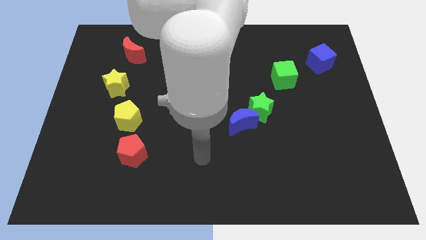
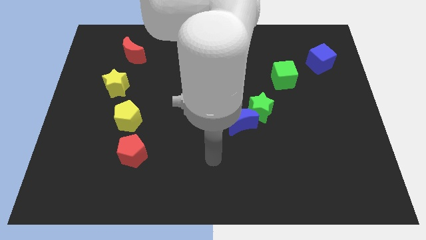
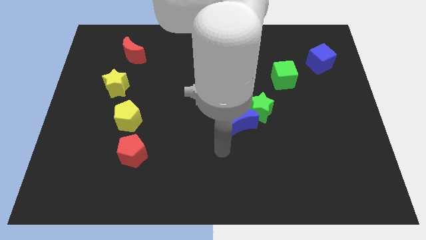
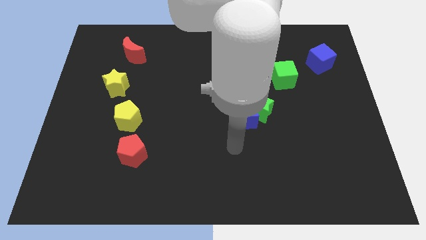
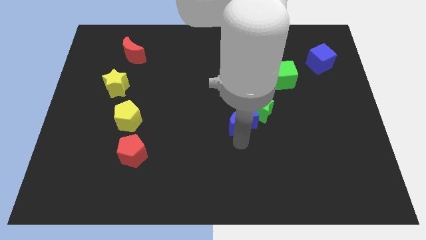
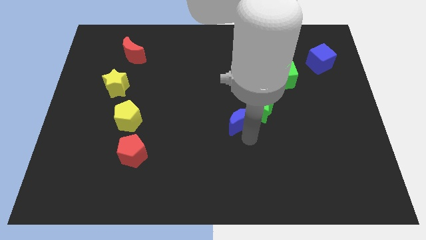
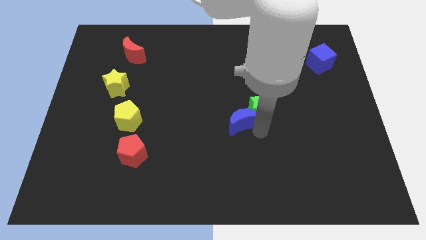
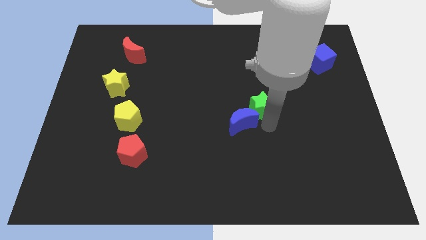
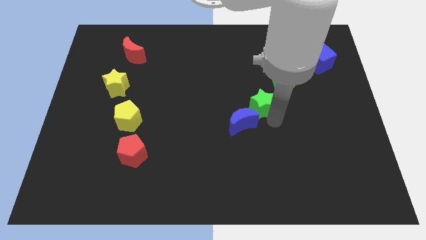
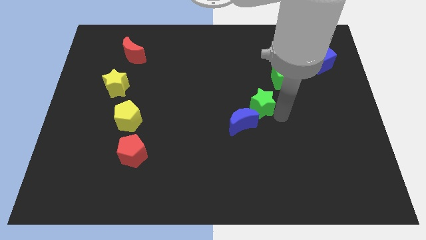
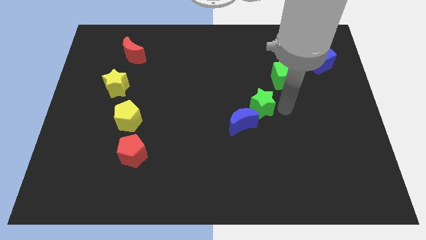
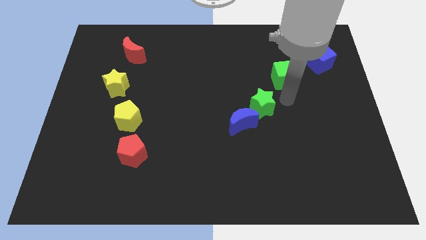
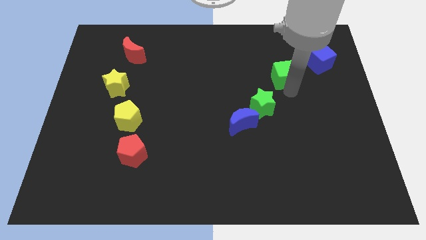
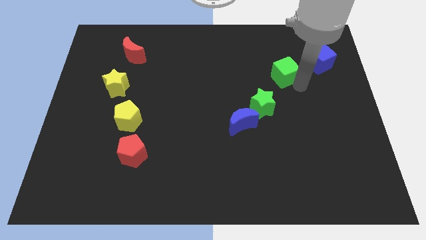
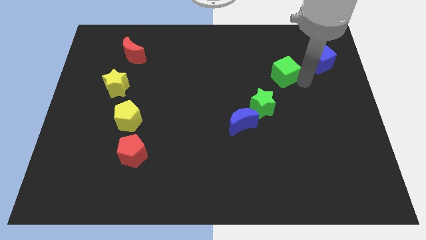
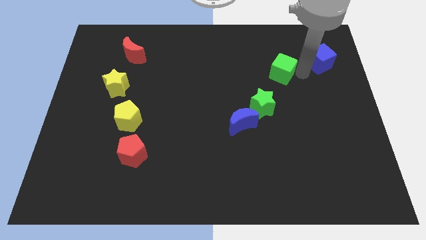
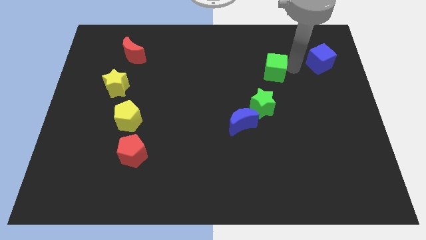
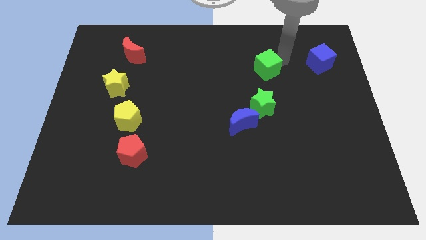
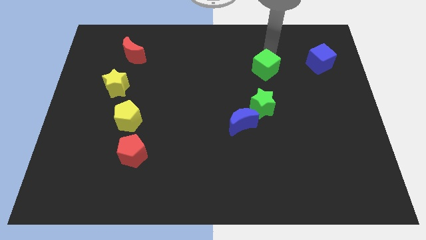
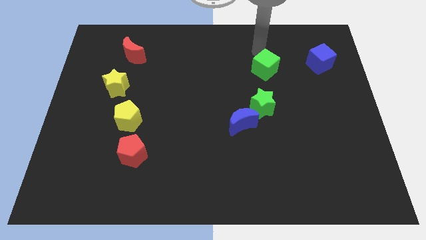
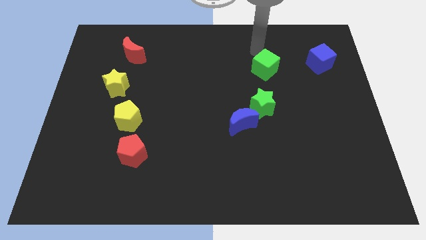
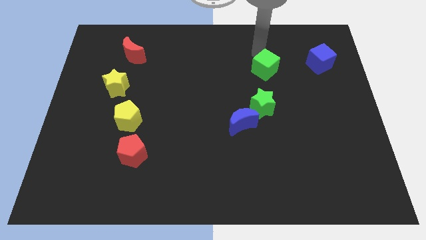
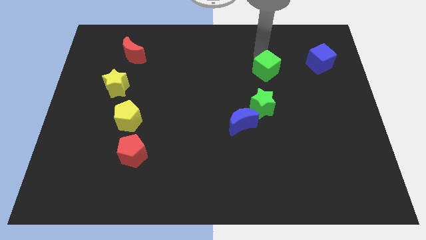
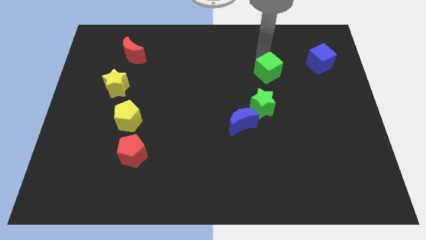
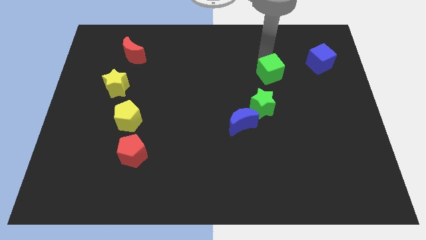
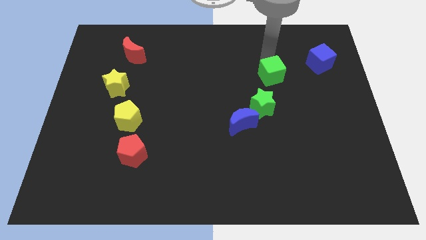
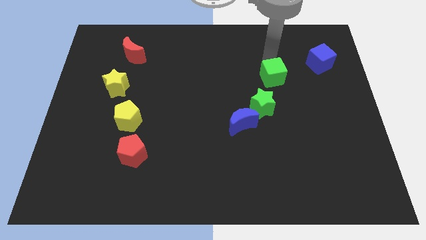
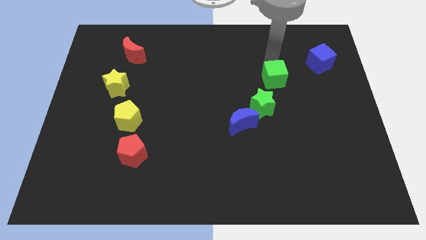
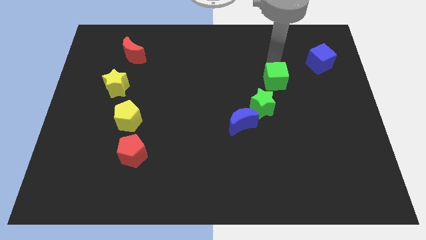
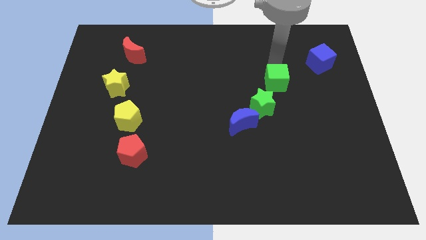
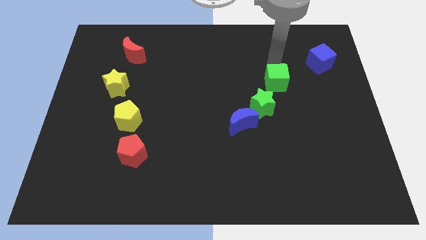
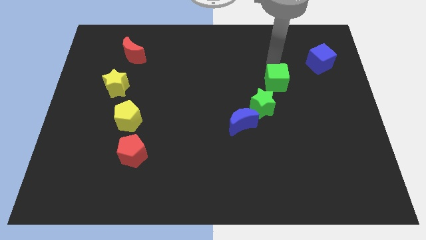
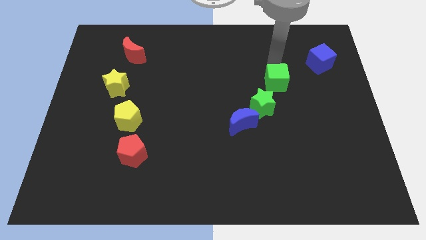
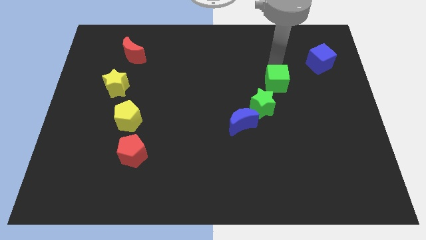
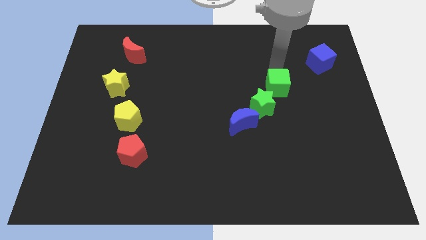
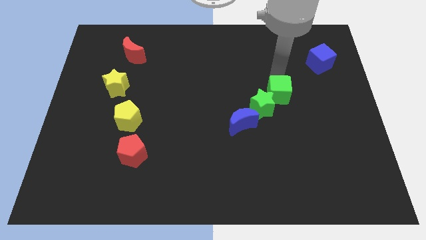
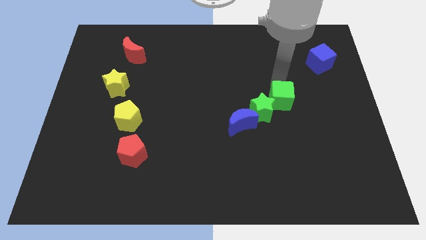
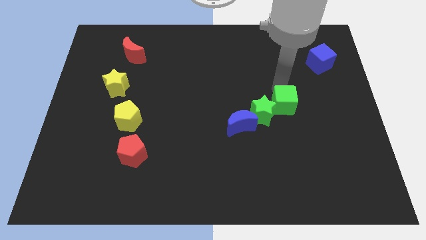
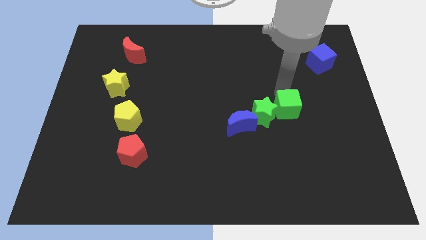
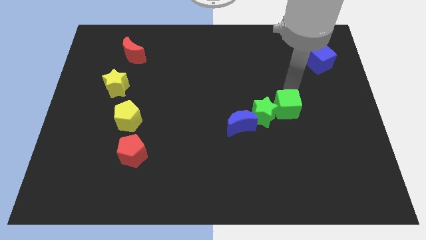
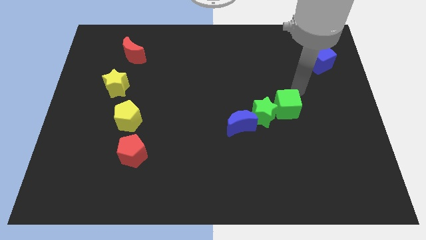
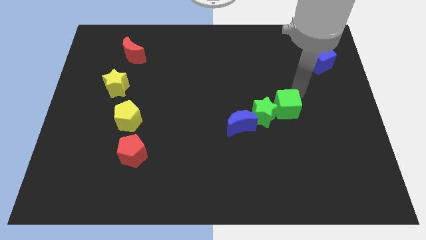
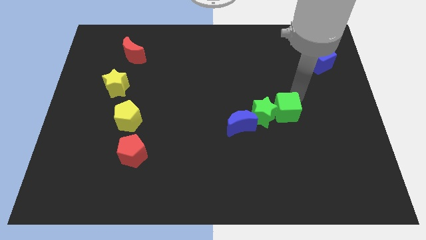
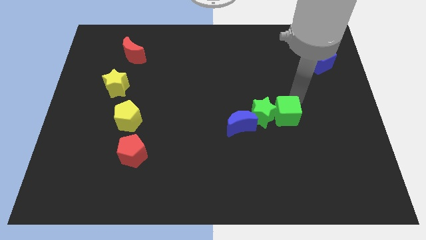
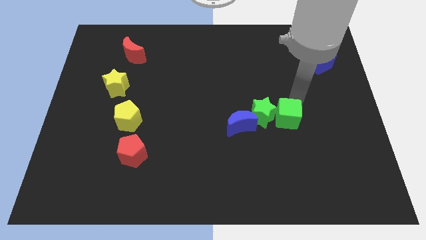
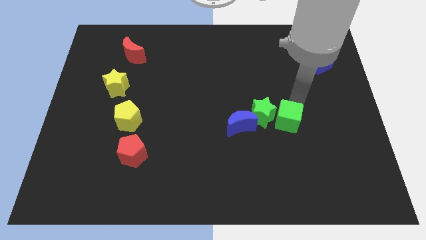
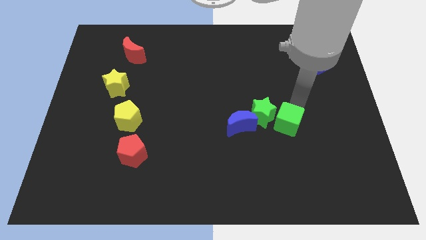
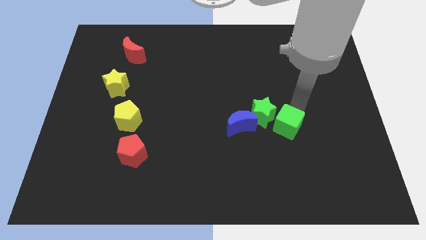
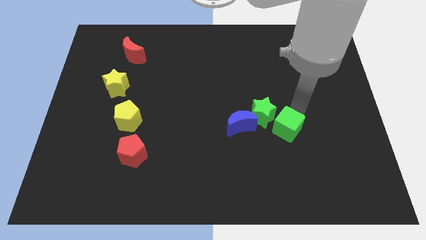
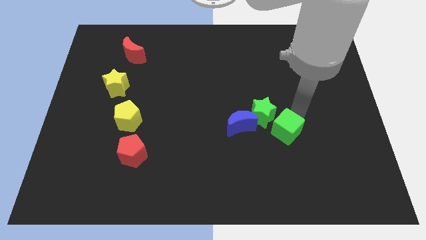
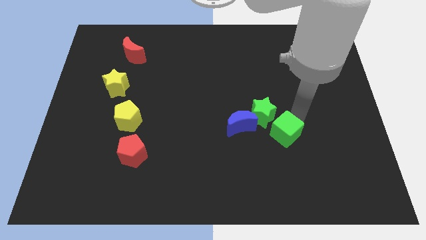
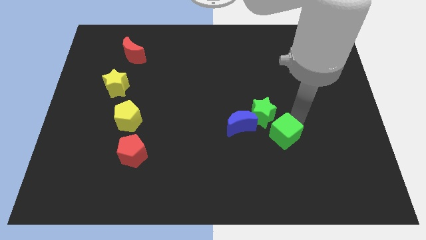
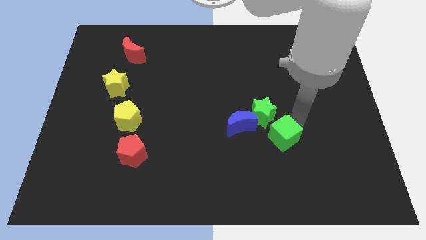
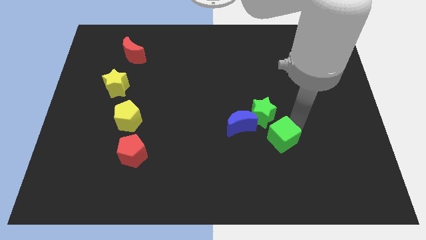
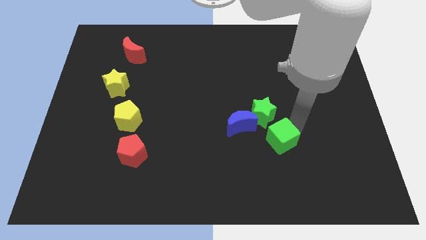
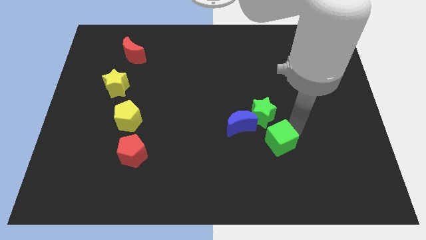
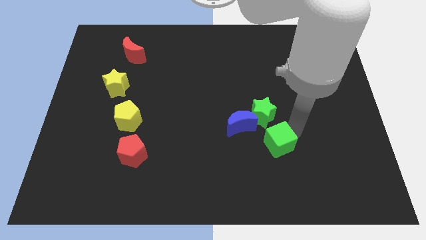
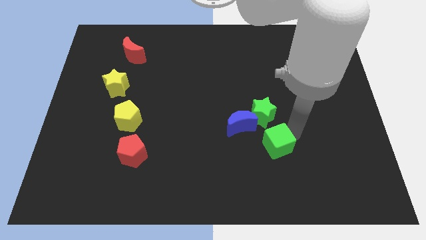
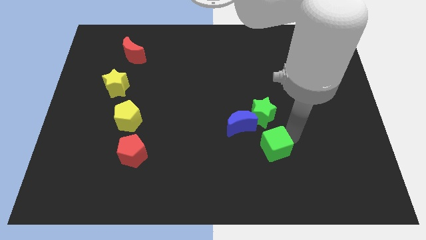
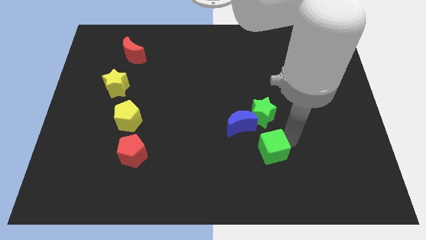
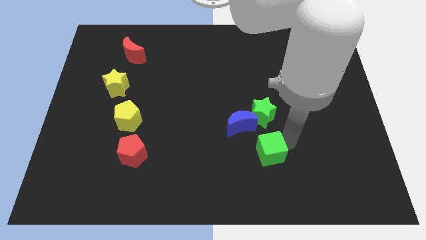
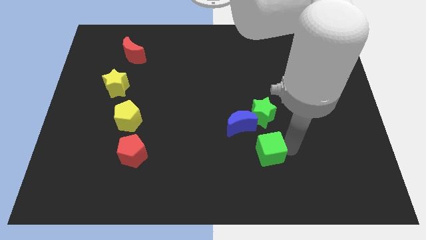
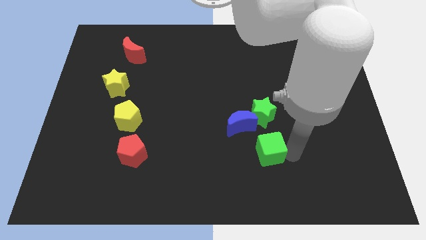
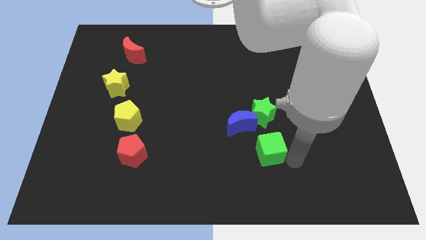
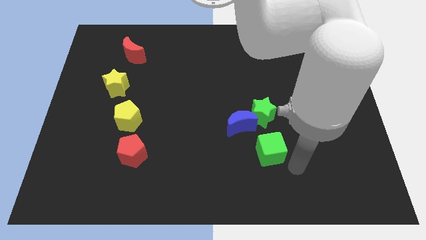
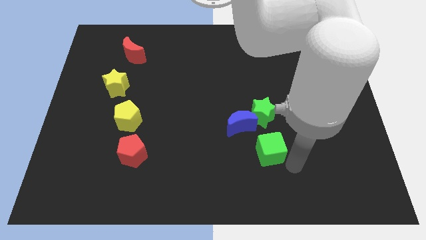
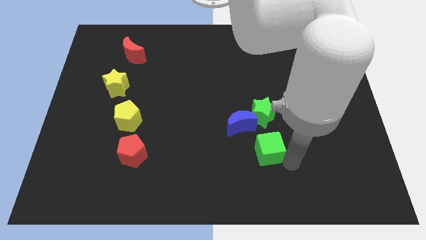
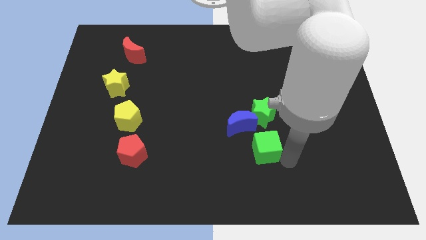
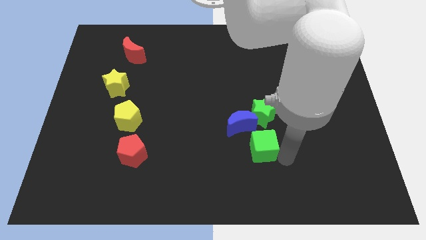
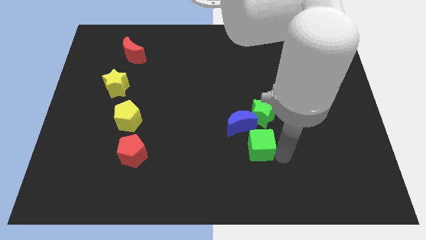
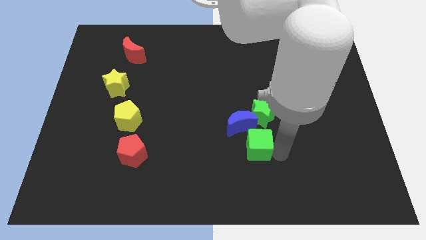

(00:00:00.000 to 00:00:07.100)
slide the green cube diagonally down and to the left of the green star

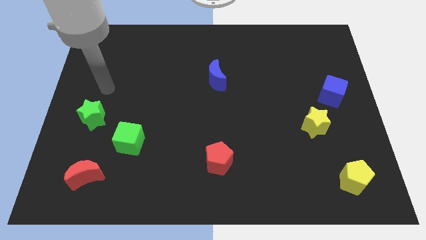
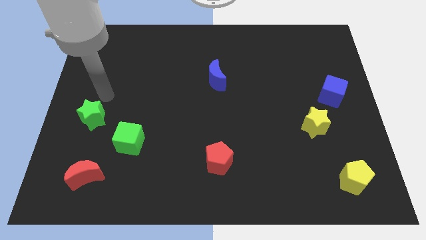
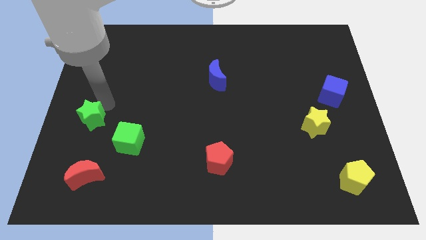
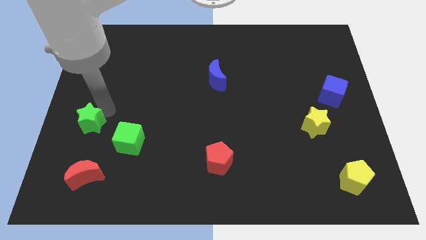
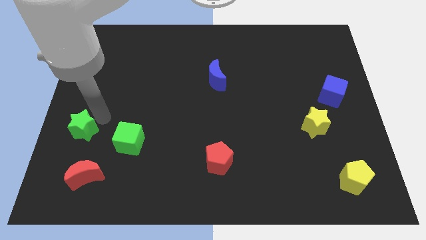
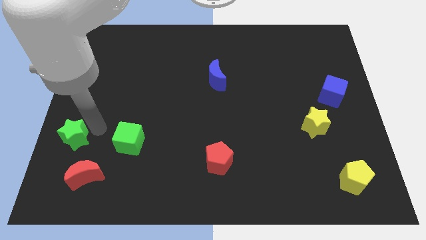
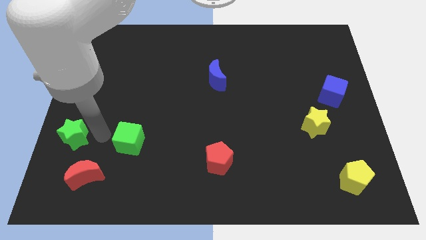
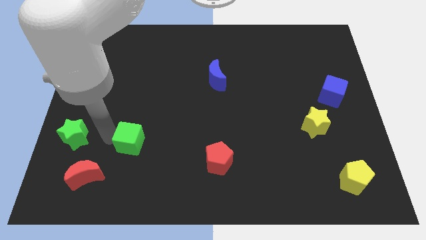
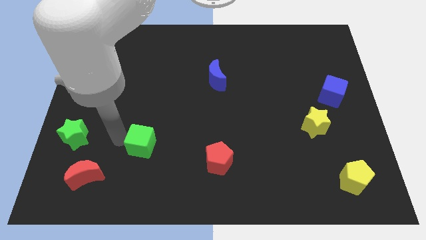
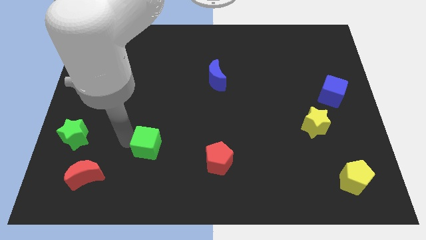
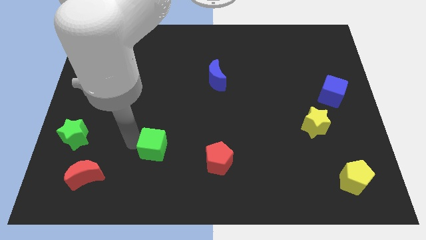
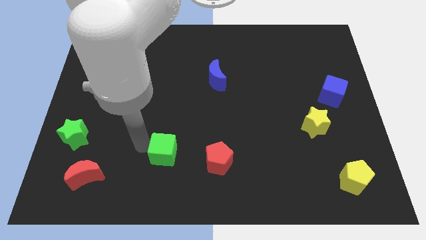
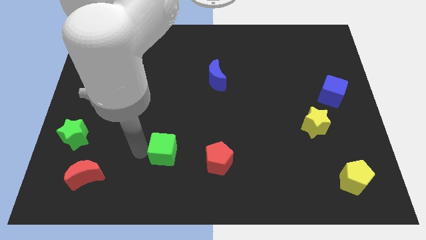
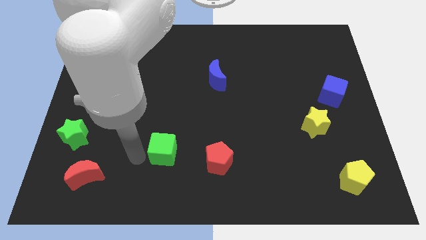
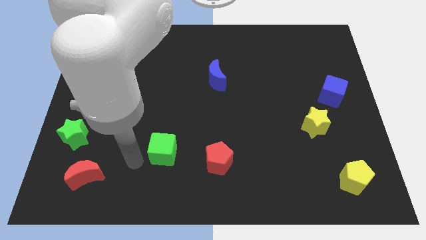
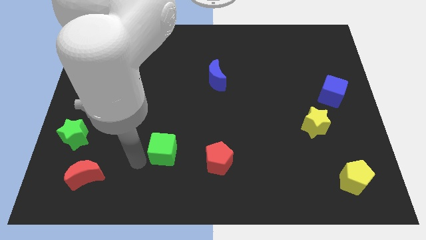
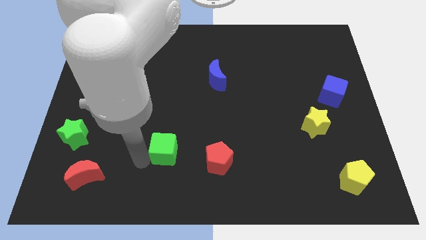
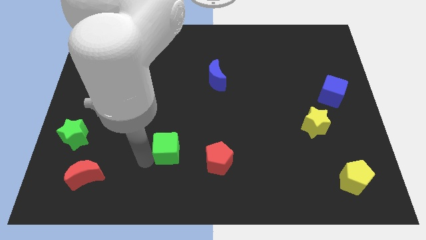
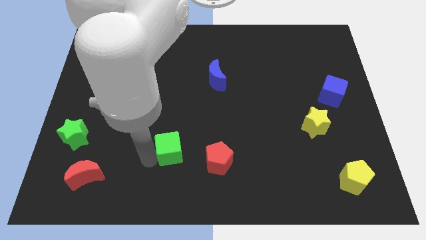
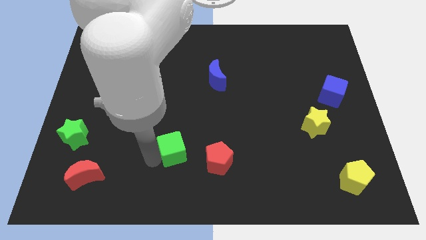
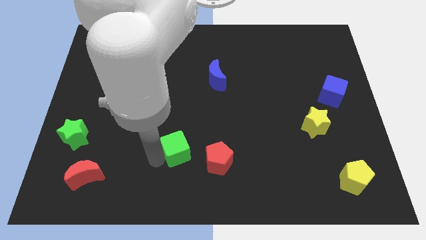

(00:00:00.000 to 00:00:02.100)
move the green cube diagonally up and to the left of the red pentagon
